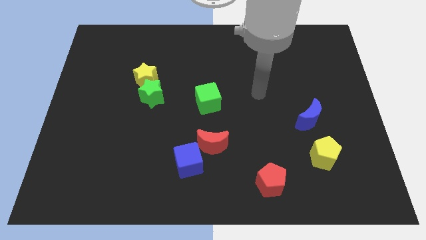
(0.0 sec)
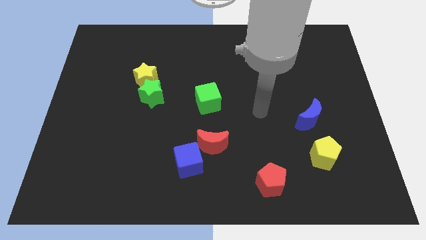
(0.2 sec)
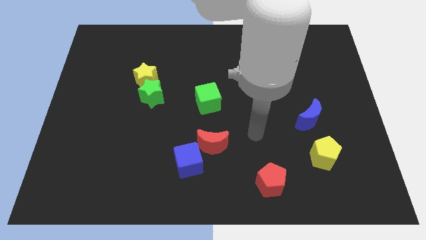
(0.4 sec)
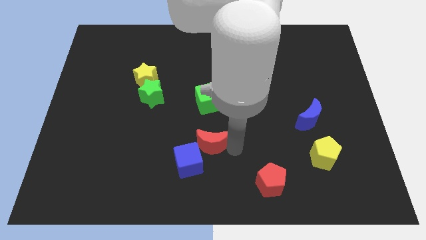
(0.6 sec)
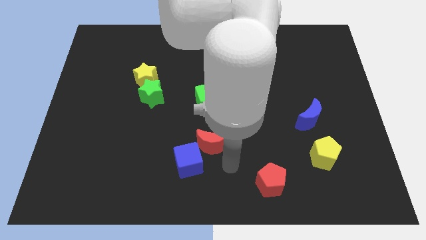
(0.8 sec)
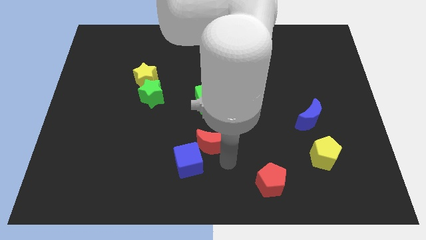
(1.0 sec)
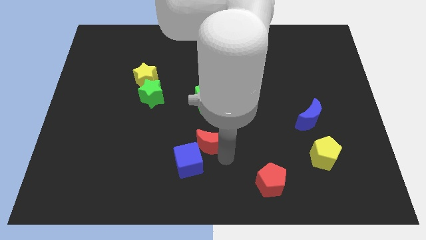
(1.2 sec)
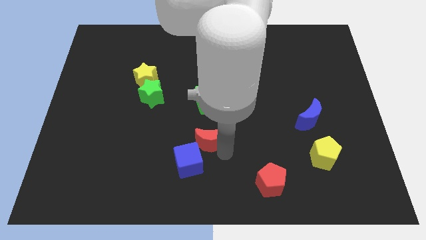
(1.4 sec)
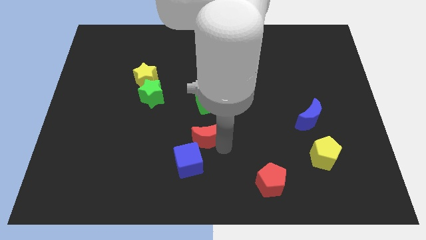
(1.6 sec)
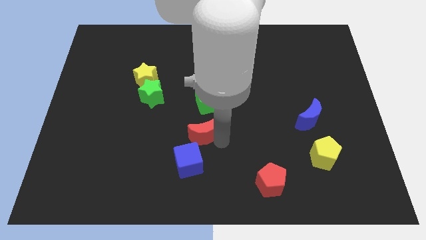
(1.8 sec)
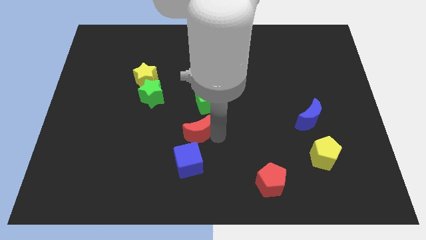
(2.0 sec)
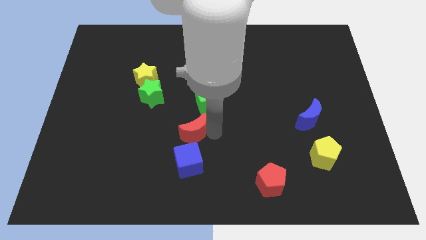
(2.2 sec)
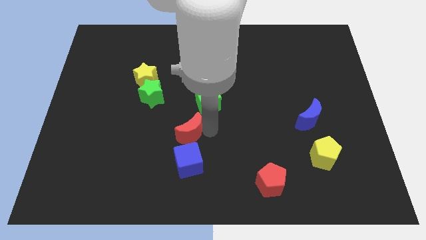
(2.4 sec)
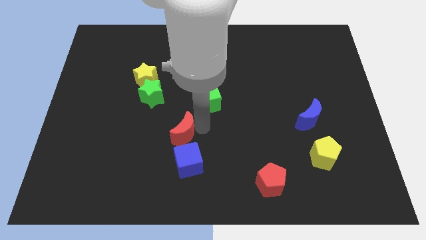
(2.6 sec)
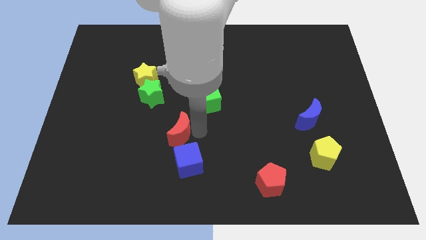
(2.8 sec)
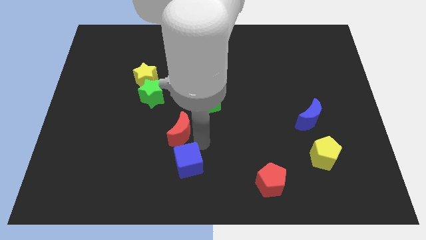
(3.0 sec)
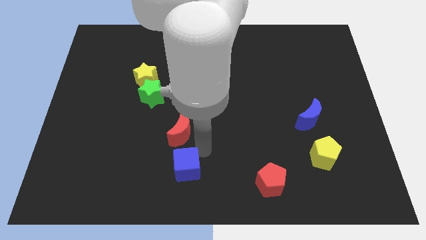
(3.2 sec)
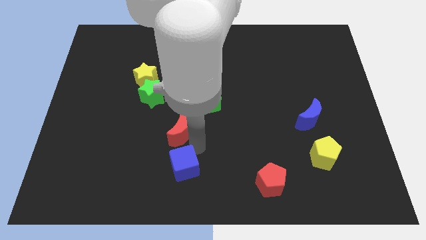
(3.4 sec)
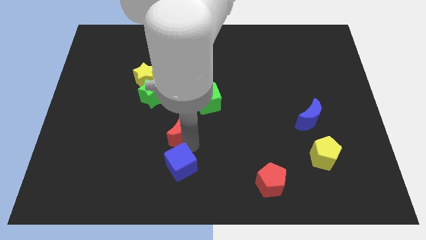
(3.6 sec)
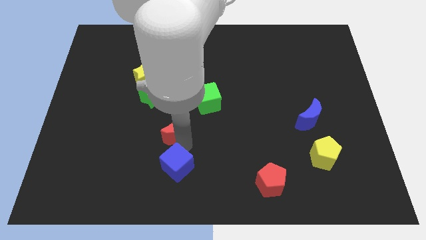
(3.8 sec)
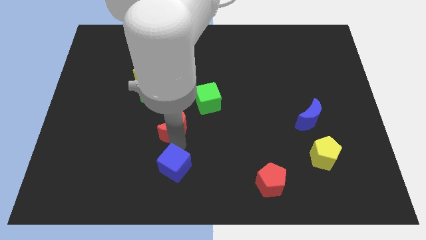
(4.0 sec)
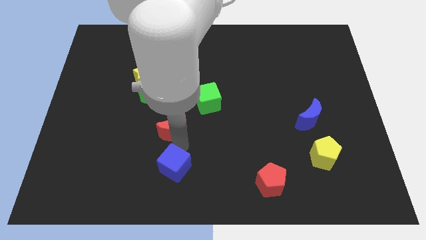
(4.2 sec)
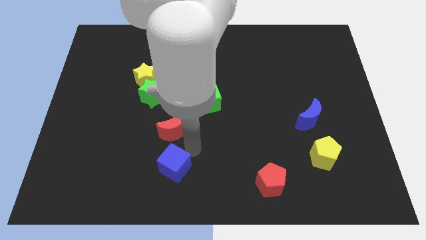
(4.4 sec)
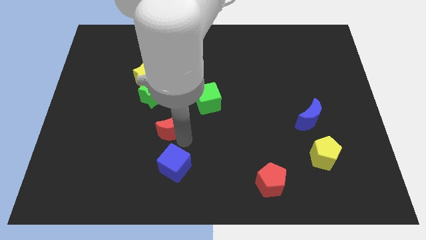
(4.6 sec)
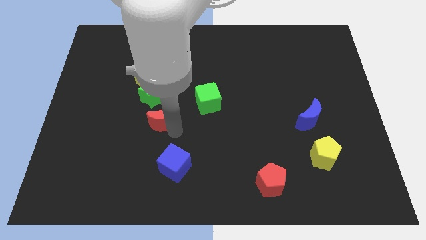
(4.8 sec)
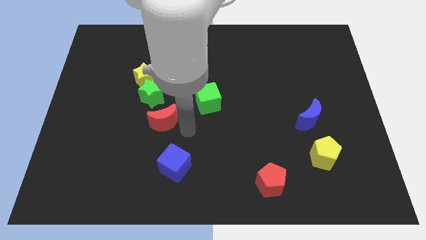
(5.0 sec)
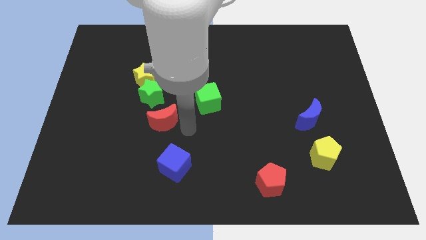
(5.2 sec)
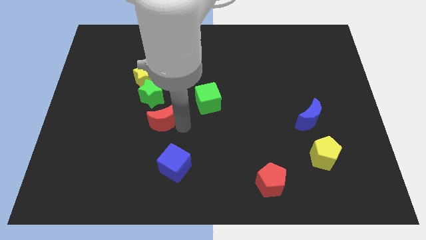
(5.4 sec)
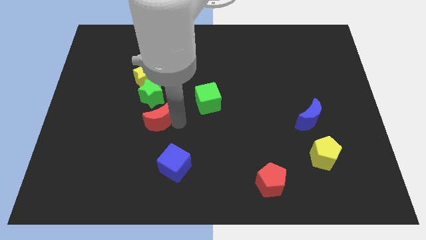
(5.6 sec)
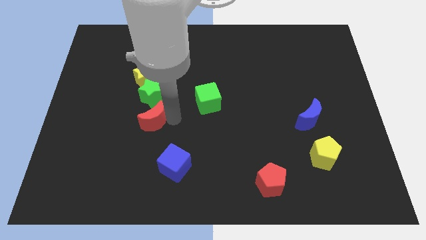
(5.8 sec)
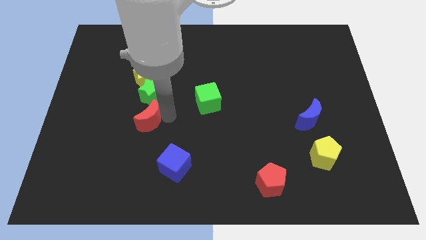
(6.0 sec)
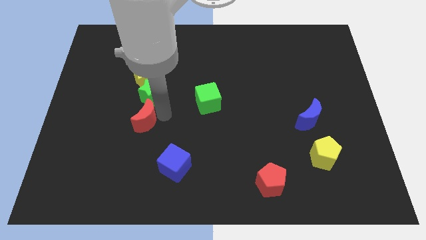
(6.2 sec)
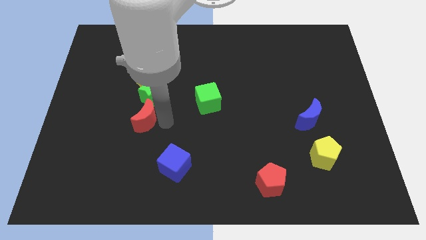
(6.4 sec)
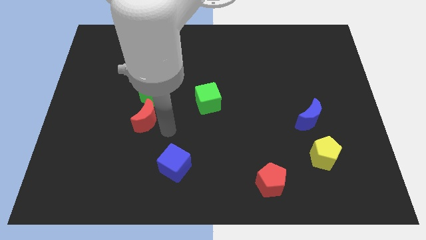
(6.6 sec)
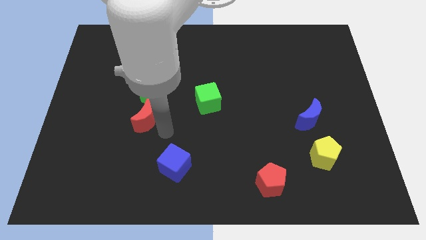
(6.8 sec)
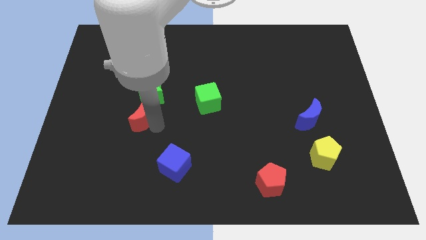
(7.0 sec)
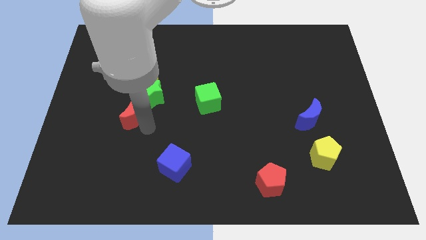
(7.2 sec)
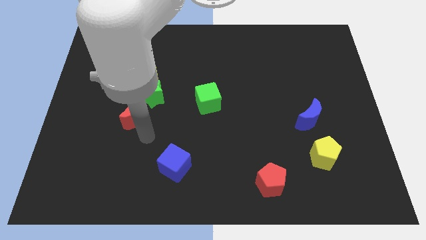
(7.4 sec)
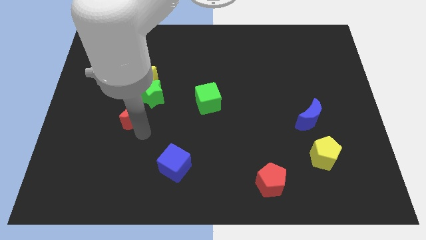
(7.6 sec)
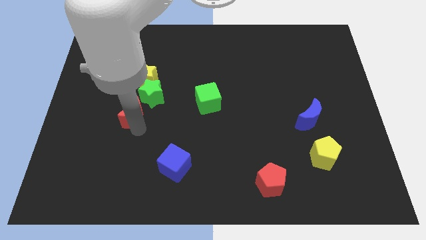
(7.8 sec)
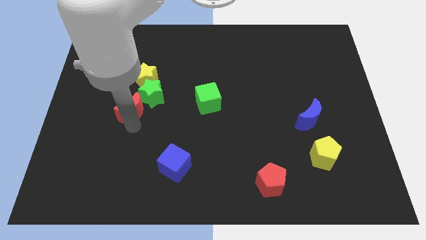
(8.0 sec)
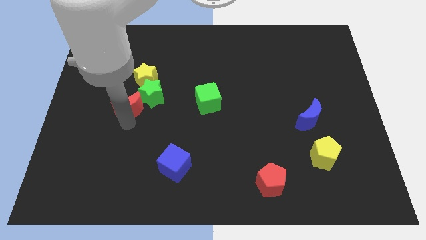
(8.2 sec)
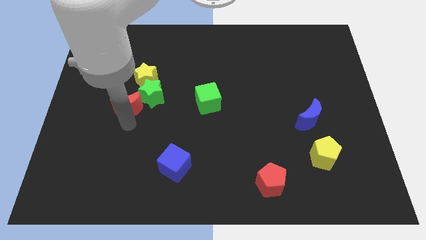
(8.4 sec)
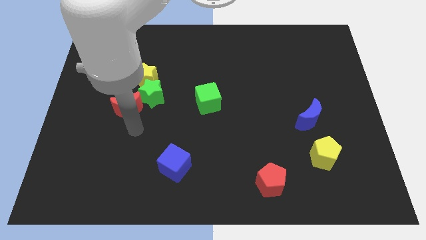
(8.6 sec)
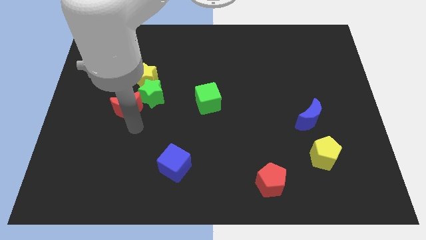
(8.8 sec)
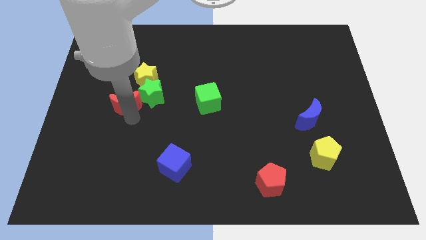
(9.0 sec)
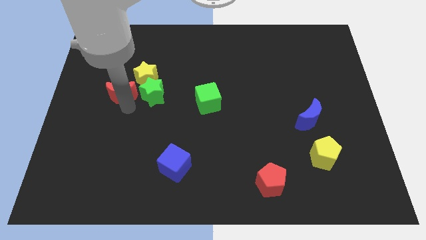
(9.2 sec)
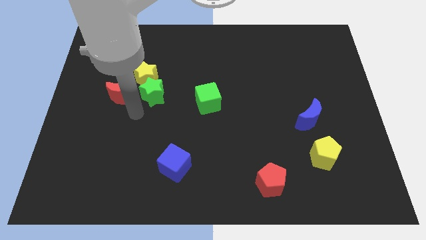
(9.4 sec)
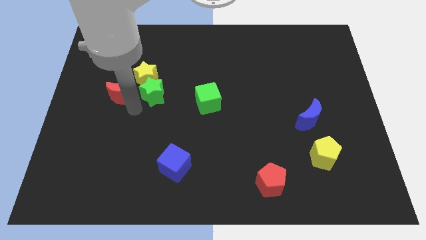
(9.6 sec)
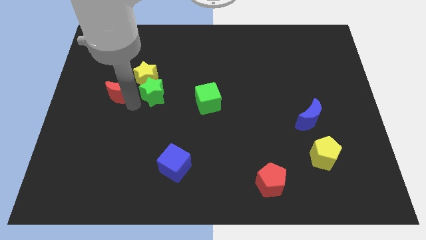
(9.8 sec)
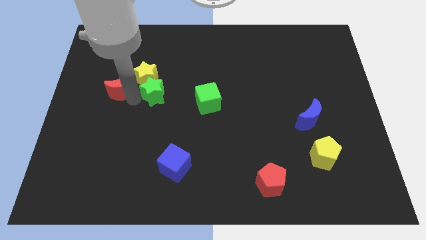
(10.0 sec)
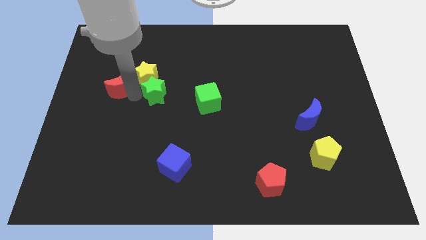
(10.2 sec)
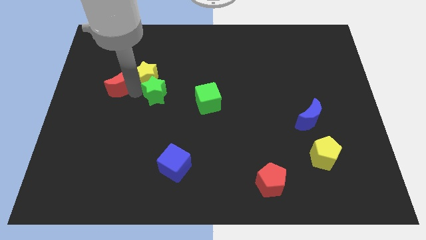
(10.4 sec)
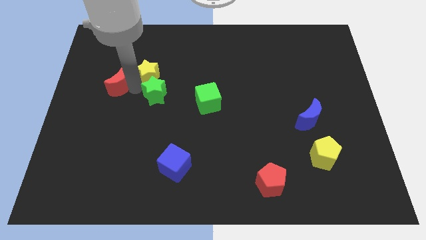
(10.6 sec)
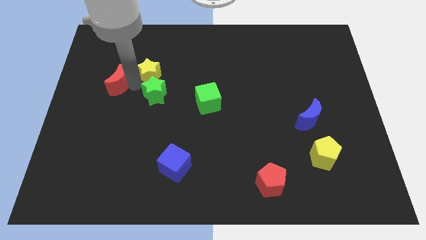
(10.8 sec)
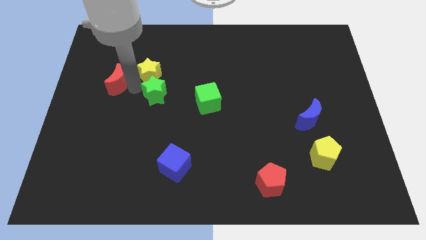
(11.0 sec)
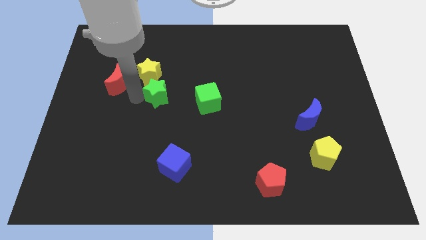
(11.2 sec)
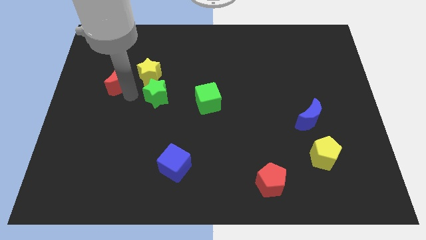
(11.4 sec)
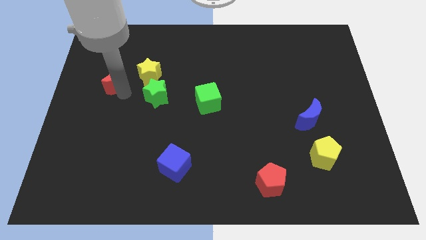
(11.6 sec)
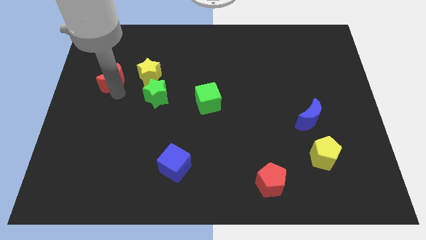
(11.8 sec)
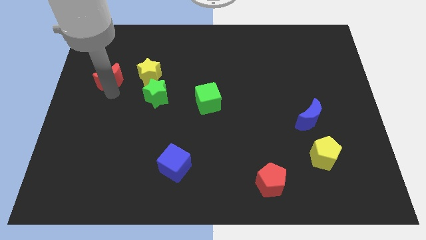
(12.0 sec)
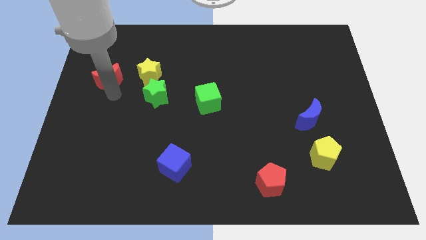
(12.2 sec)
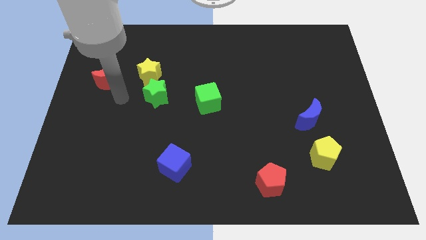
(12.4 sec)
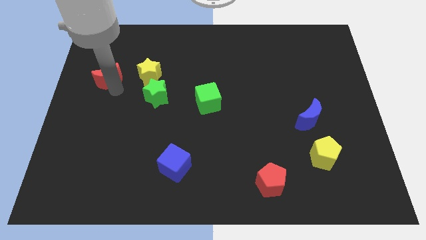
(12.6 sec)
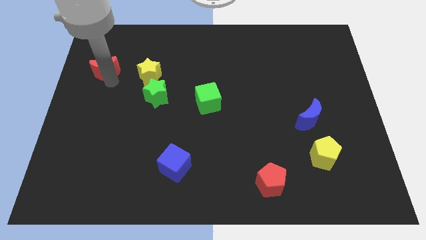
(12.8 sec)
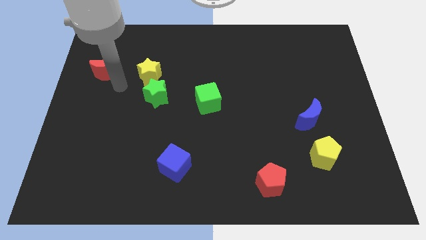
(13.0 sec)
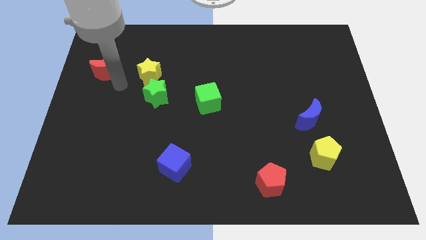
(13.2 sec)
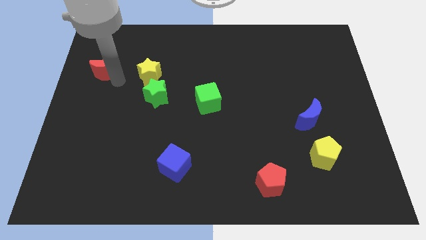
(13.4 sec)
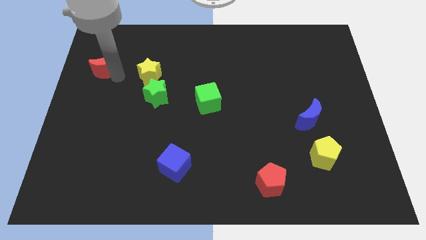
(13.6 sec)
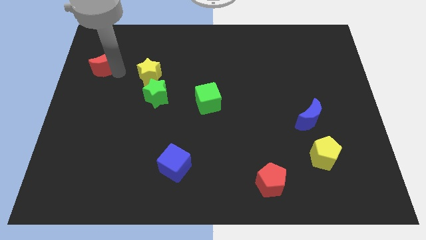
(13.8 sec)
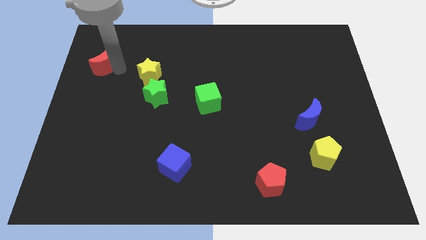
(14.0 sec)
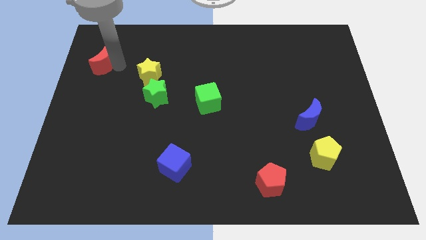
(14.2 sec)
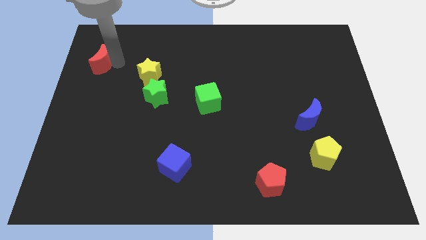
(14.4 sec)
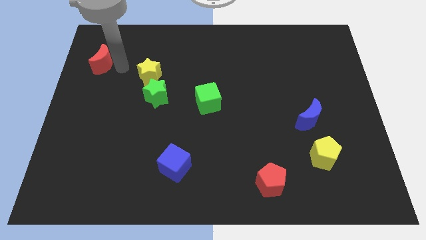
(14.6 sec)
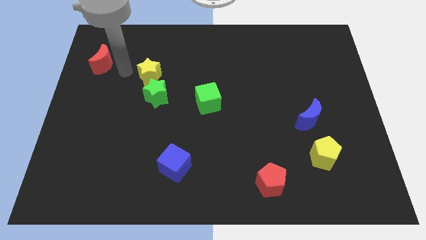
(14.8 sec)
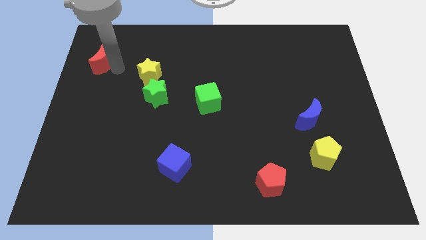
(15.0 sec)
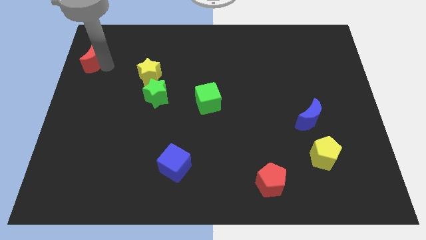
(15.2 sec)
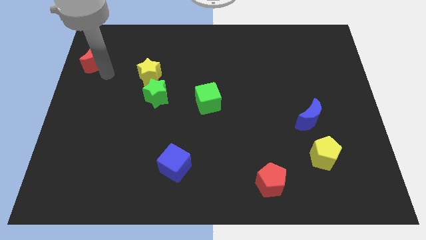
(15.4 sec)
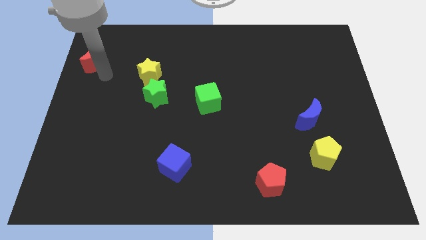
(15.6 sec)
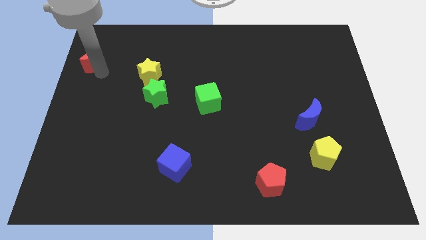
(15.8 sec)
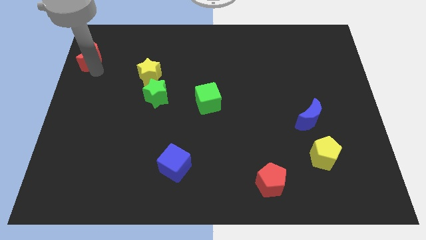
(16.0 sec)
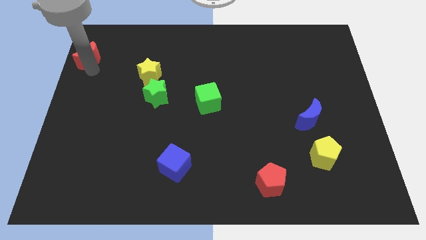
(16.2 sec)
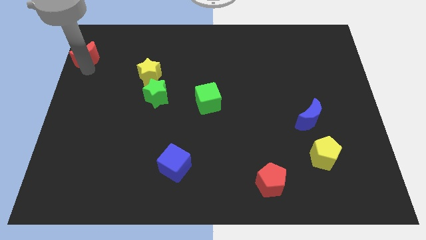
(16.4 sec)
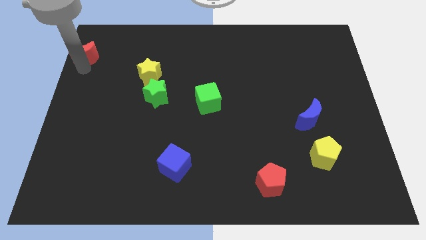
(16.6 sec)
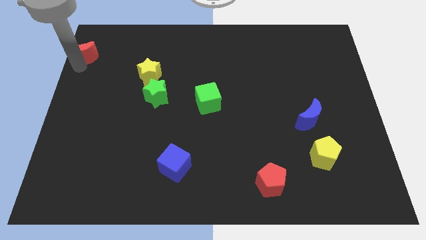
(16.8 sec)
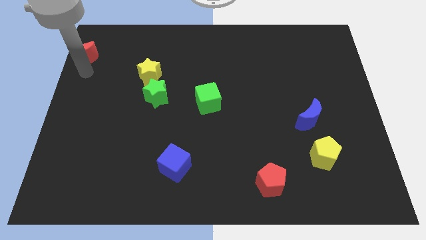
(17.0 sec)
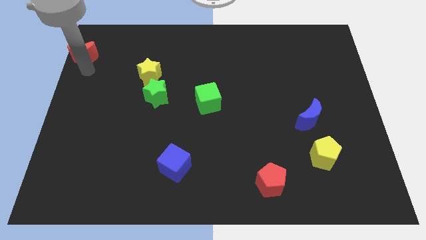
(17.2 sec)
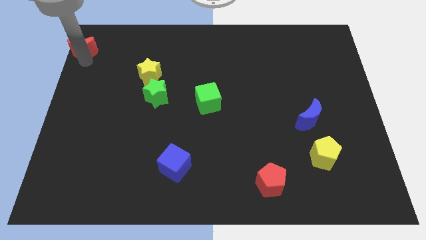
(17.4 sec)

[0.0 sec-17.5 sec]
put the red moon to the upper left corner
